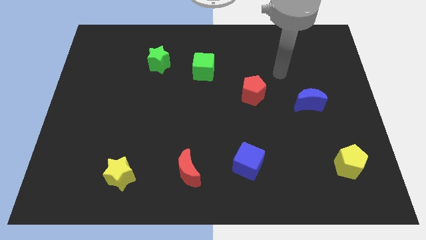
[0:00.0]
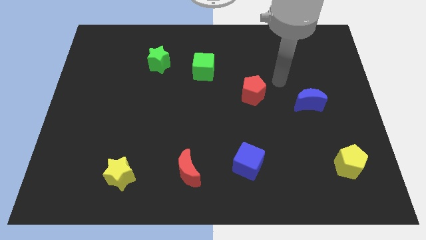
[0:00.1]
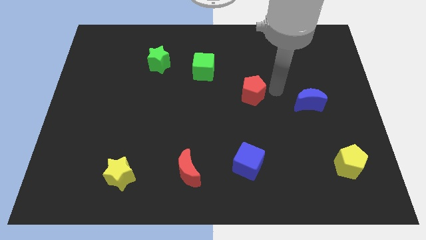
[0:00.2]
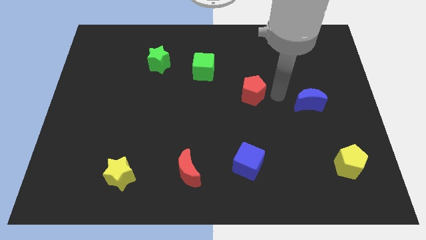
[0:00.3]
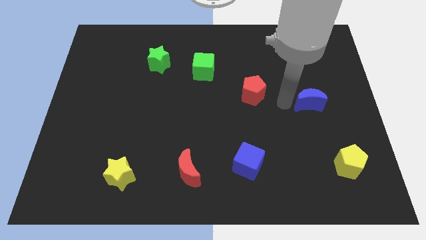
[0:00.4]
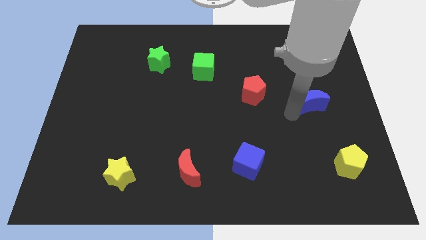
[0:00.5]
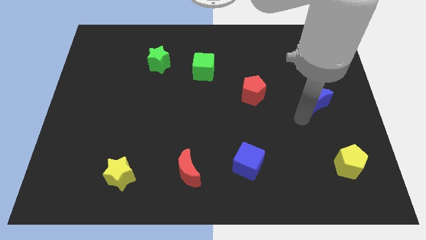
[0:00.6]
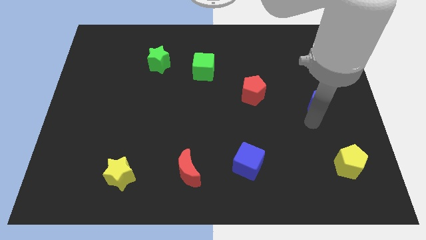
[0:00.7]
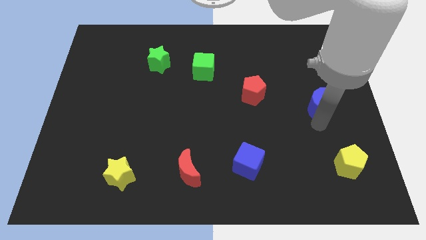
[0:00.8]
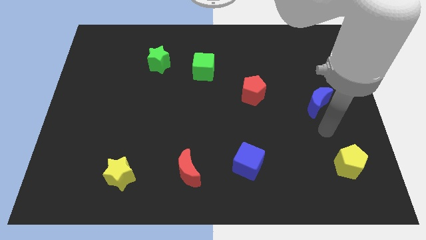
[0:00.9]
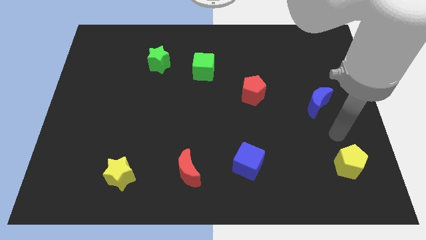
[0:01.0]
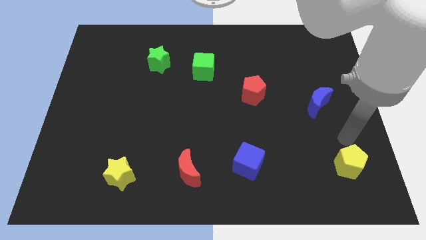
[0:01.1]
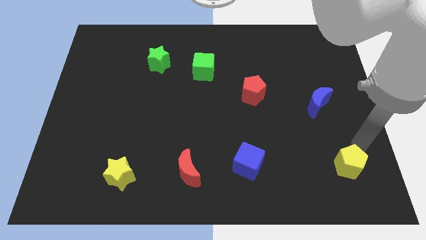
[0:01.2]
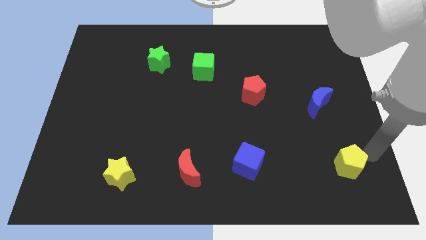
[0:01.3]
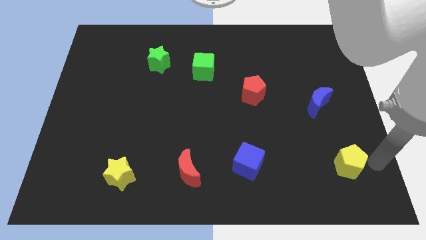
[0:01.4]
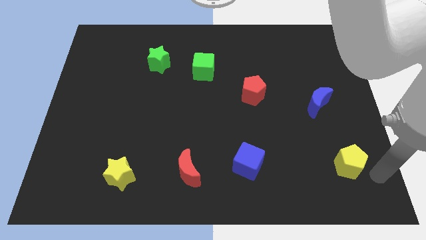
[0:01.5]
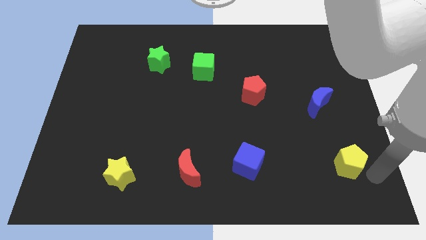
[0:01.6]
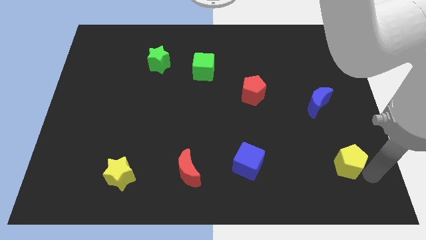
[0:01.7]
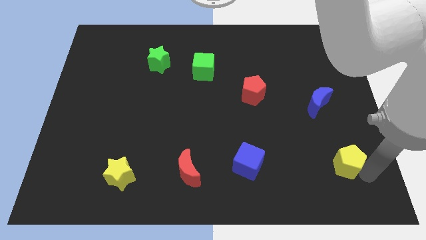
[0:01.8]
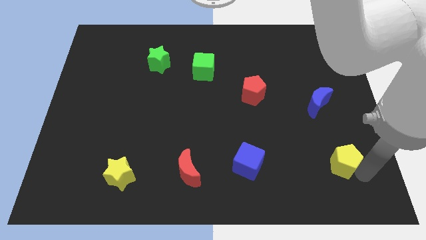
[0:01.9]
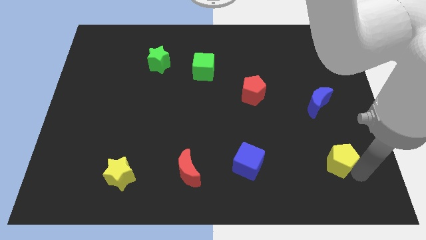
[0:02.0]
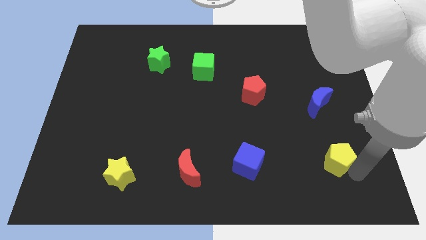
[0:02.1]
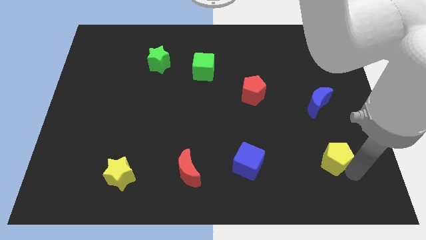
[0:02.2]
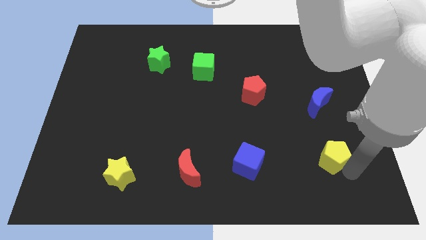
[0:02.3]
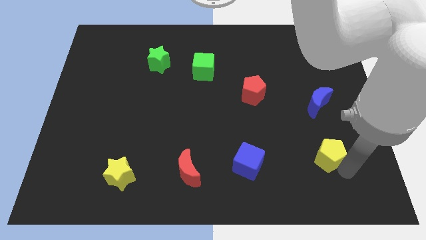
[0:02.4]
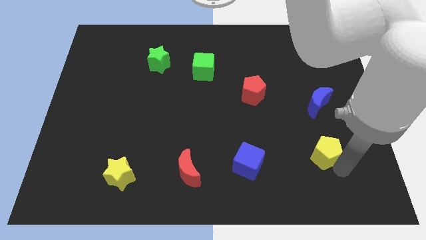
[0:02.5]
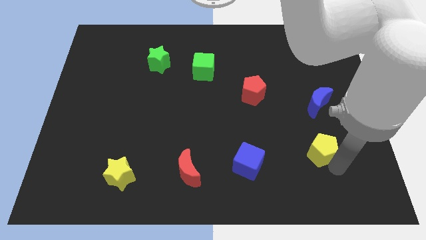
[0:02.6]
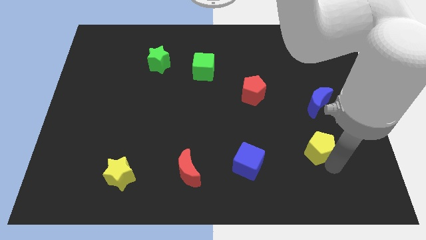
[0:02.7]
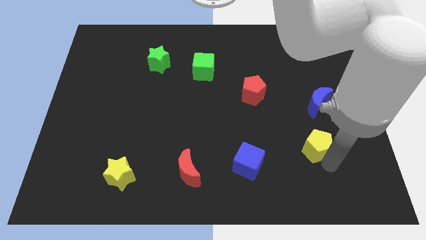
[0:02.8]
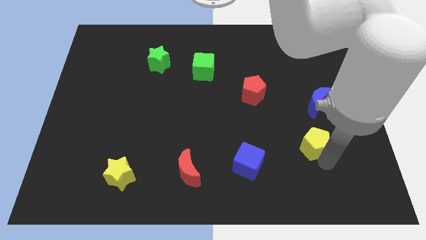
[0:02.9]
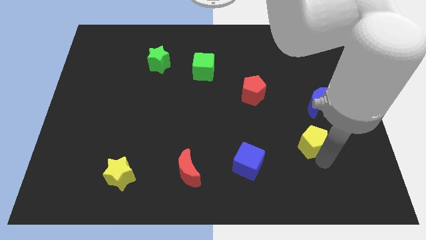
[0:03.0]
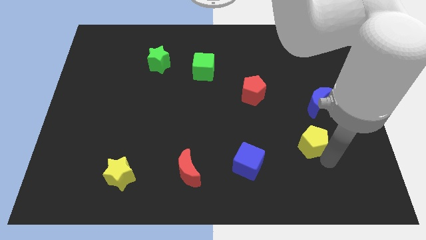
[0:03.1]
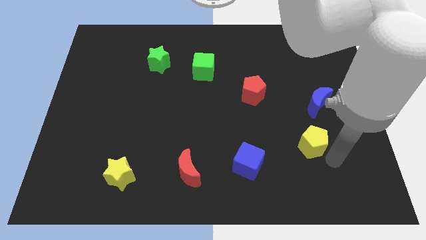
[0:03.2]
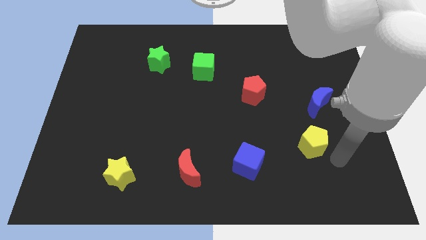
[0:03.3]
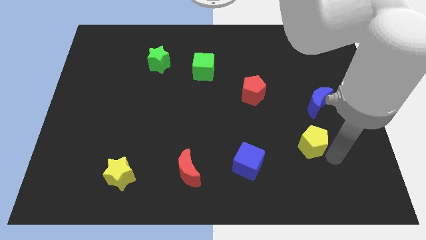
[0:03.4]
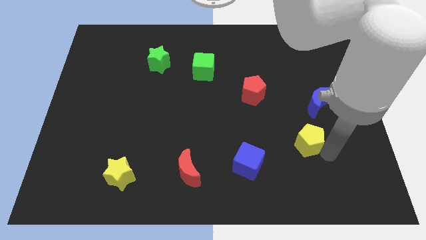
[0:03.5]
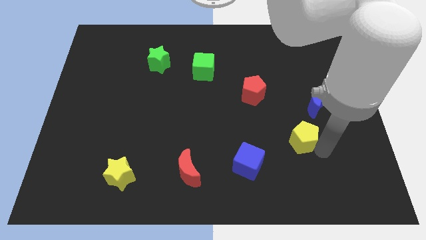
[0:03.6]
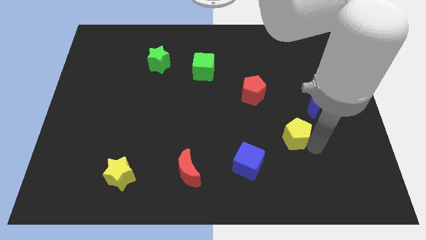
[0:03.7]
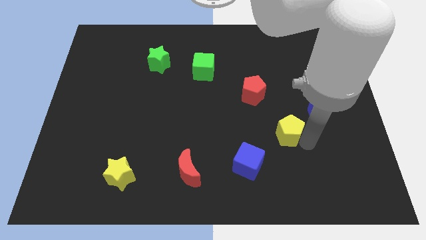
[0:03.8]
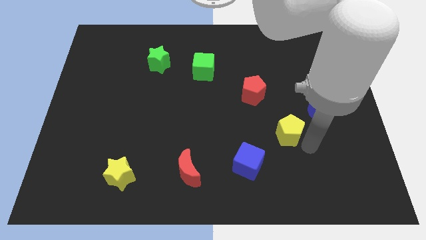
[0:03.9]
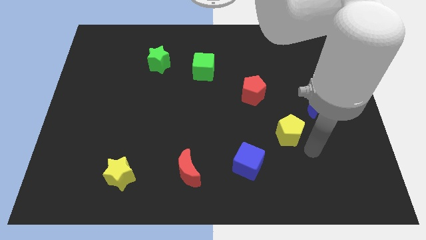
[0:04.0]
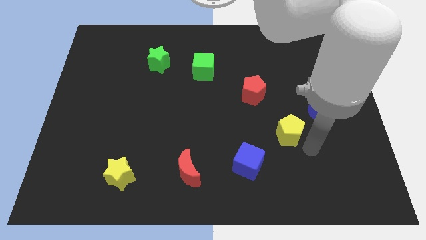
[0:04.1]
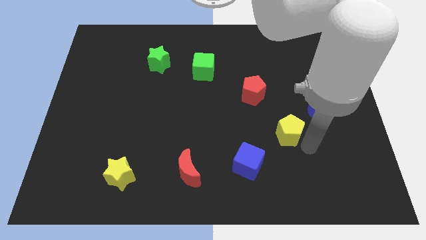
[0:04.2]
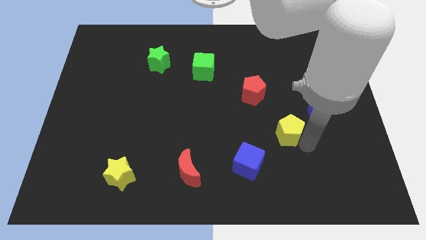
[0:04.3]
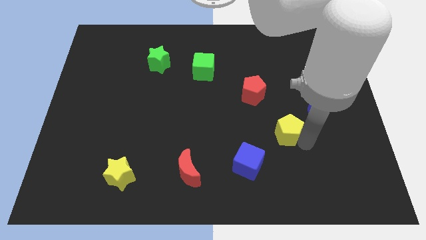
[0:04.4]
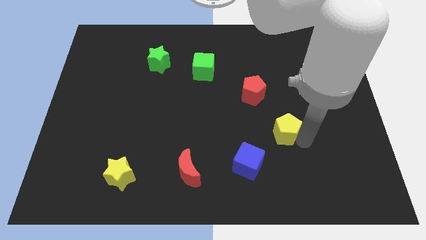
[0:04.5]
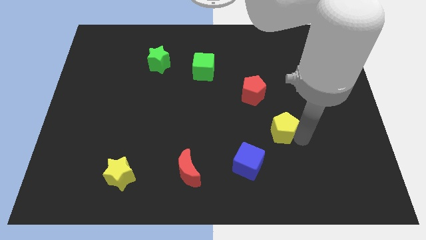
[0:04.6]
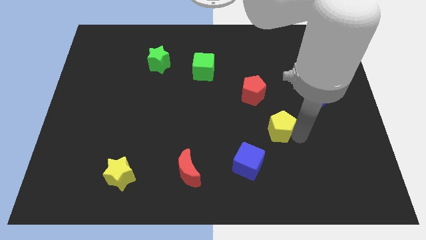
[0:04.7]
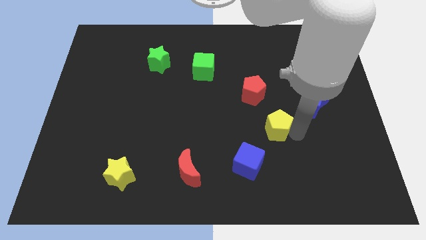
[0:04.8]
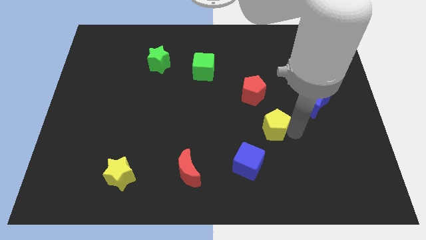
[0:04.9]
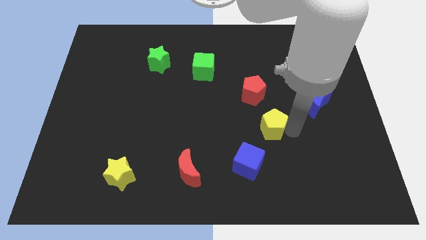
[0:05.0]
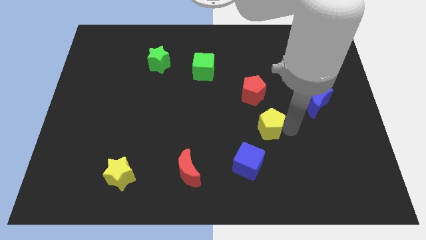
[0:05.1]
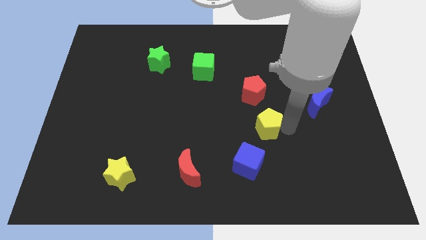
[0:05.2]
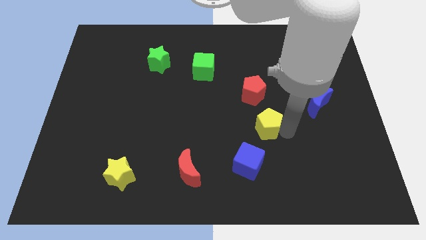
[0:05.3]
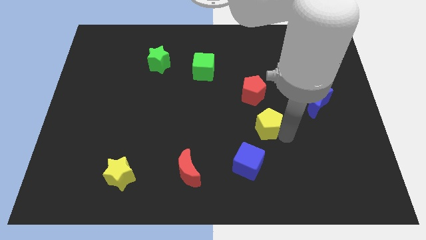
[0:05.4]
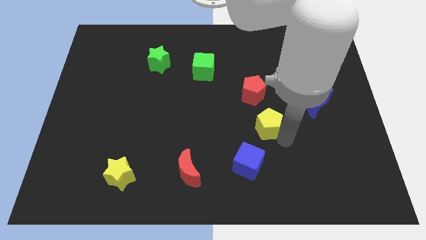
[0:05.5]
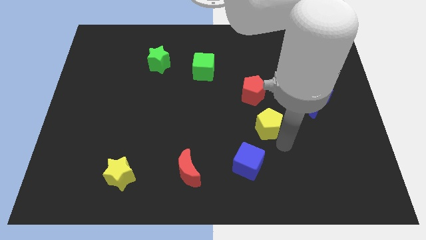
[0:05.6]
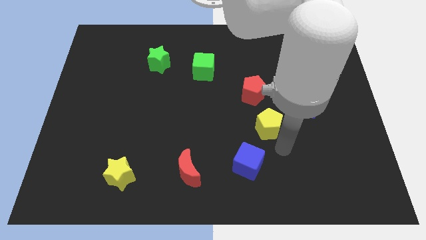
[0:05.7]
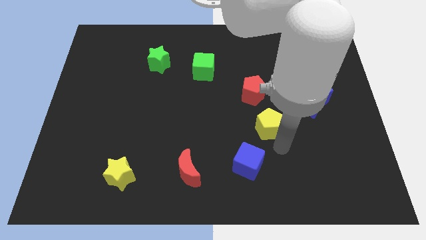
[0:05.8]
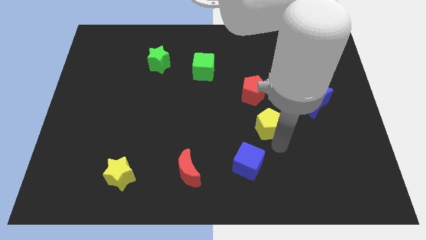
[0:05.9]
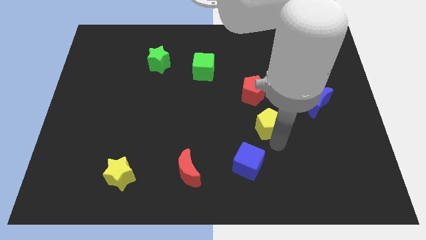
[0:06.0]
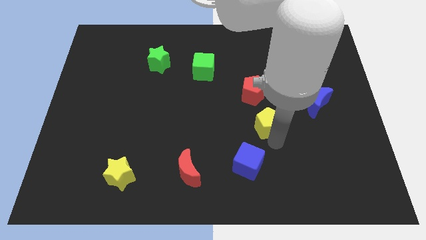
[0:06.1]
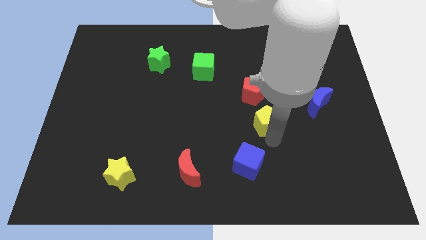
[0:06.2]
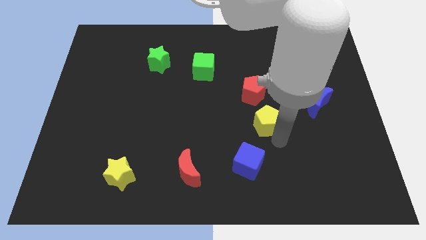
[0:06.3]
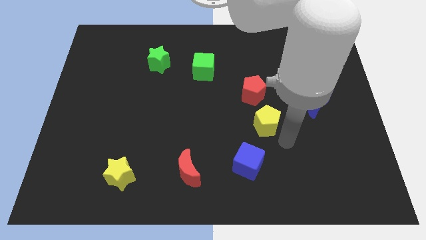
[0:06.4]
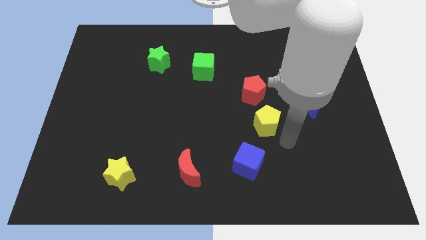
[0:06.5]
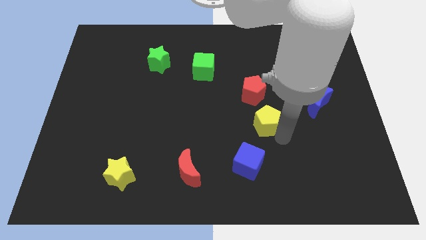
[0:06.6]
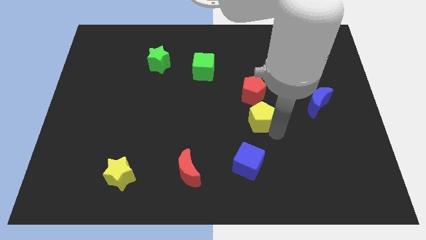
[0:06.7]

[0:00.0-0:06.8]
slide the yellow pentagon to the middle

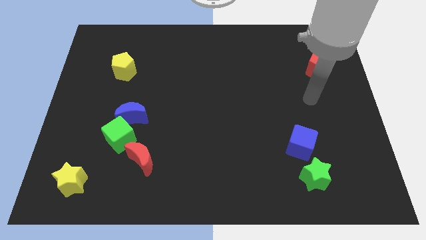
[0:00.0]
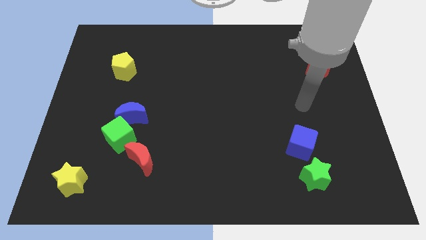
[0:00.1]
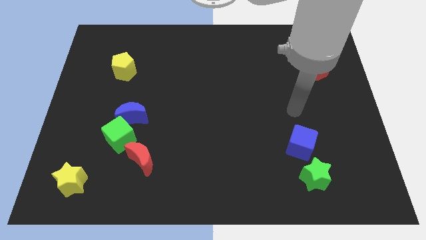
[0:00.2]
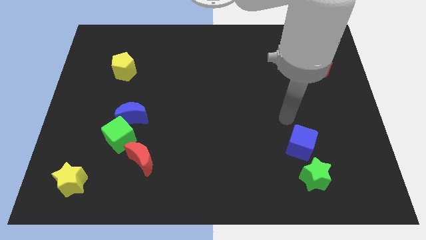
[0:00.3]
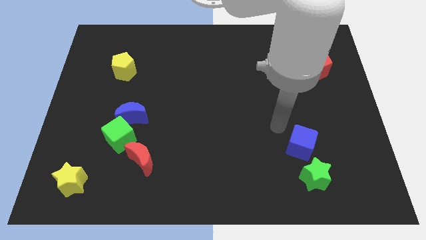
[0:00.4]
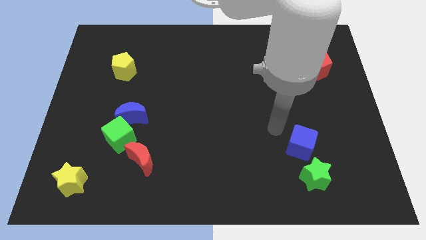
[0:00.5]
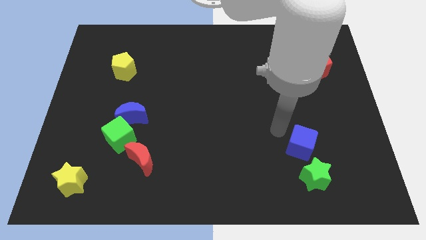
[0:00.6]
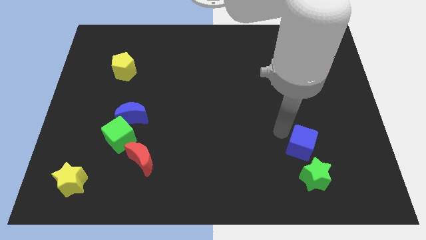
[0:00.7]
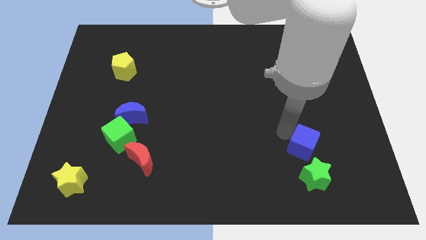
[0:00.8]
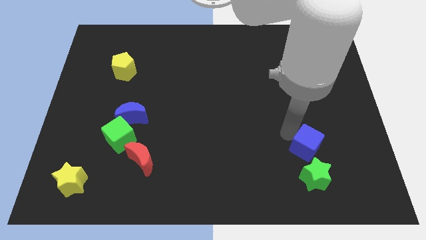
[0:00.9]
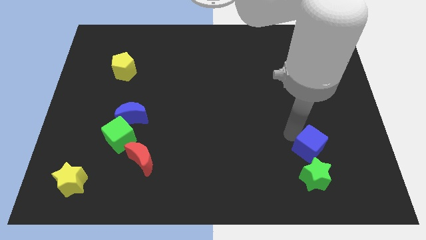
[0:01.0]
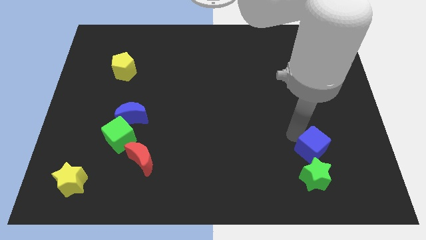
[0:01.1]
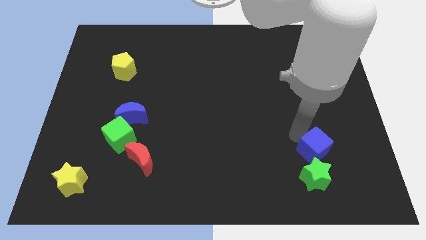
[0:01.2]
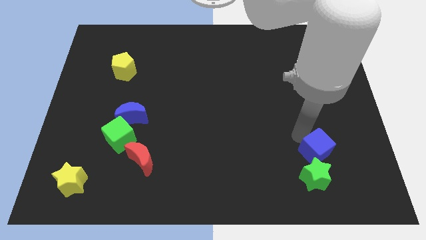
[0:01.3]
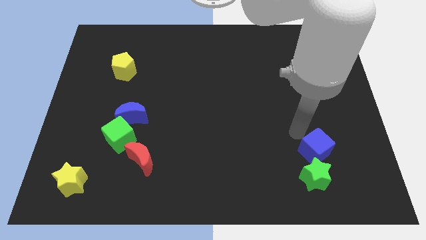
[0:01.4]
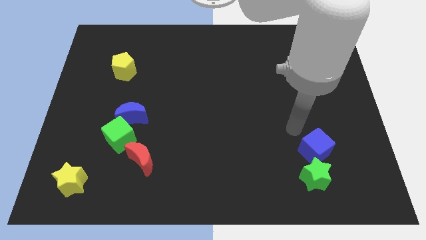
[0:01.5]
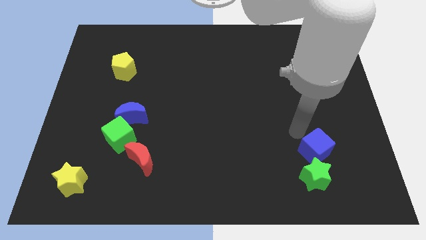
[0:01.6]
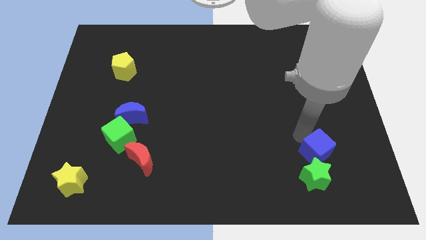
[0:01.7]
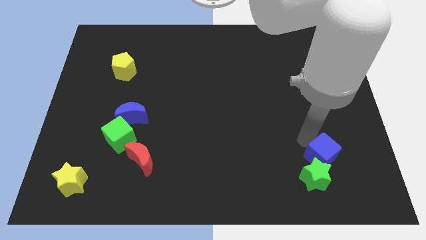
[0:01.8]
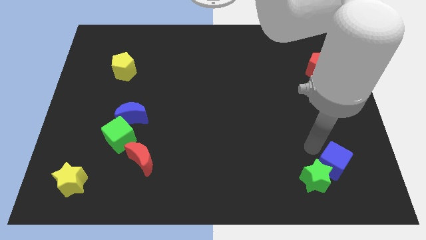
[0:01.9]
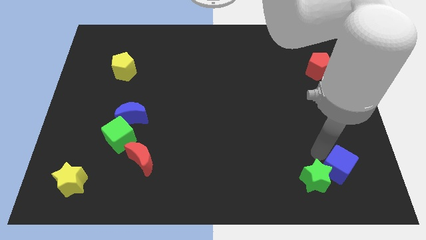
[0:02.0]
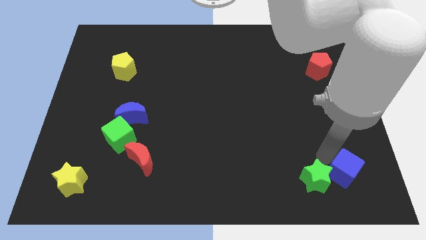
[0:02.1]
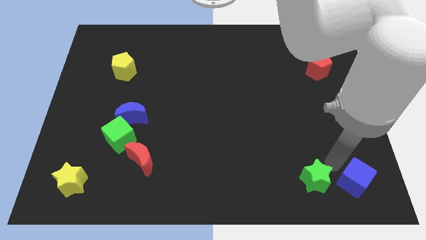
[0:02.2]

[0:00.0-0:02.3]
push the blue cube to the bottom right of the board
